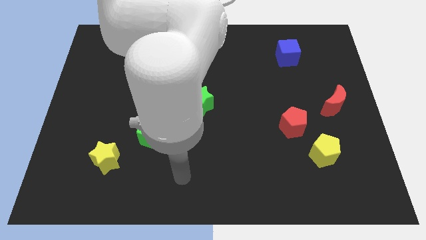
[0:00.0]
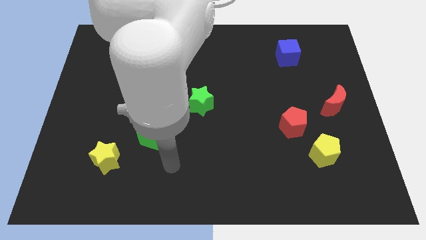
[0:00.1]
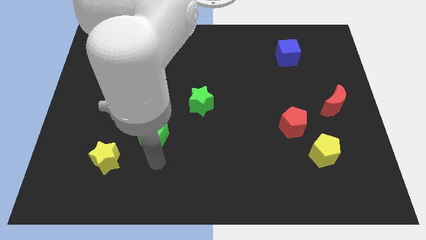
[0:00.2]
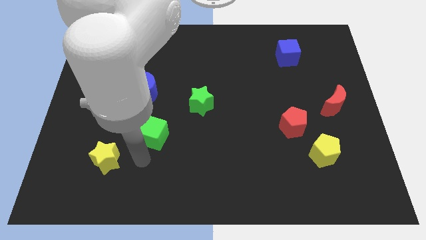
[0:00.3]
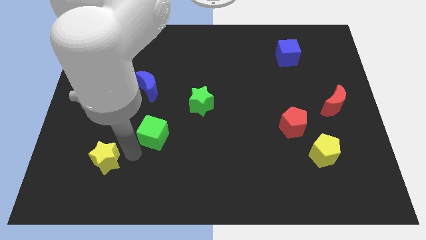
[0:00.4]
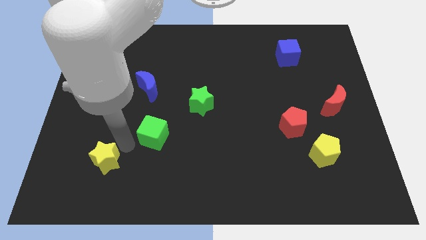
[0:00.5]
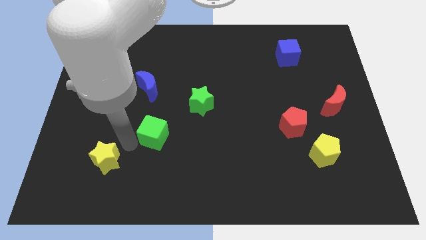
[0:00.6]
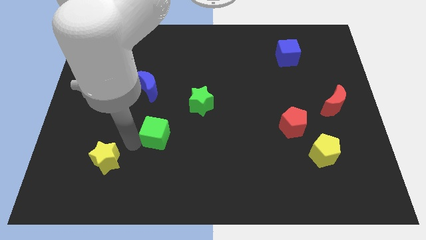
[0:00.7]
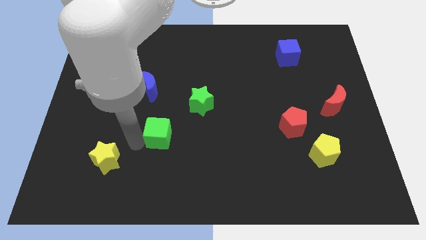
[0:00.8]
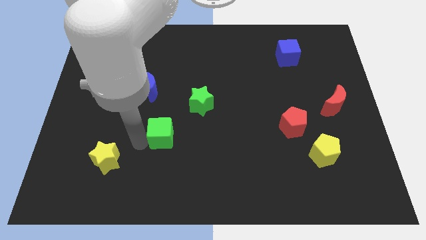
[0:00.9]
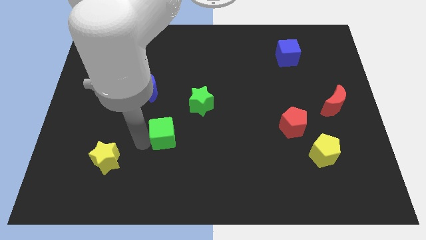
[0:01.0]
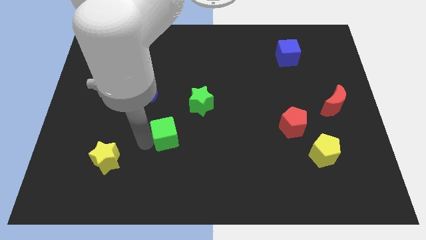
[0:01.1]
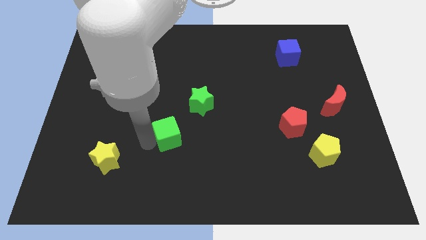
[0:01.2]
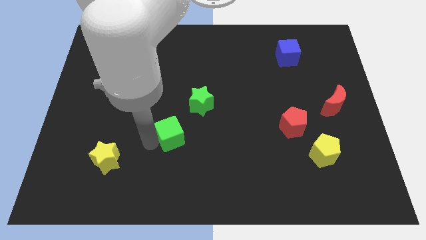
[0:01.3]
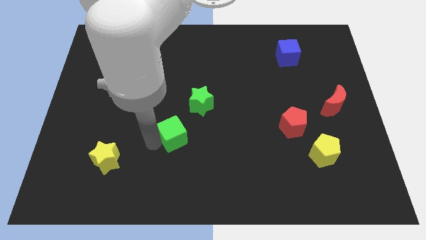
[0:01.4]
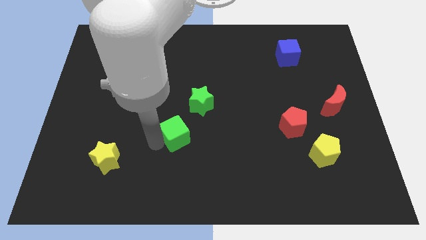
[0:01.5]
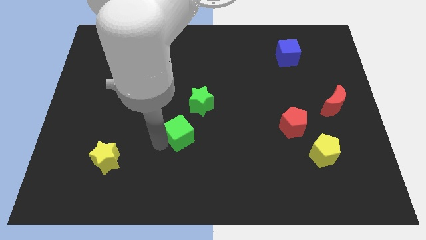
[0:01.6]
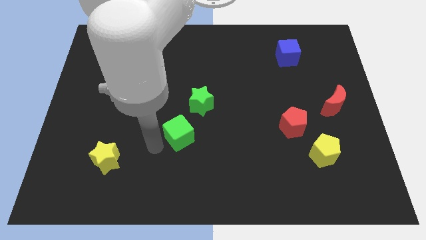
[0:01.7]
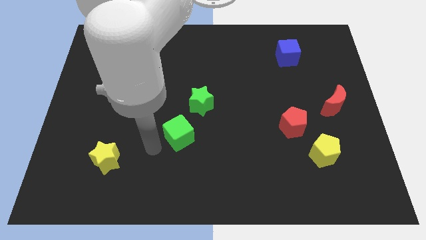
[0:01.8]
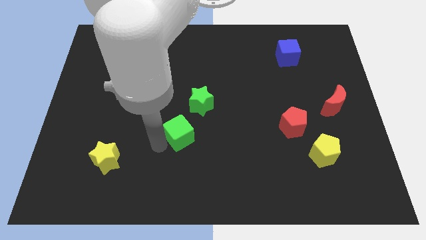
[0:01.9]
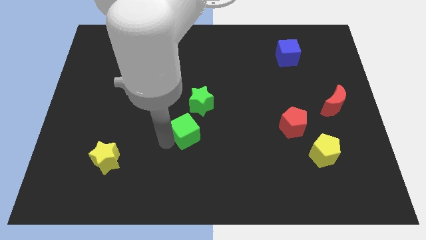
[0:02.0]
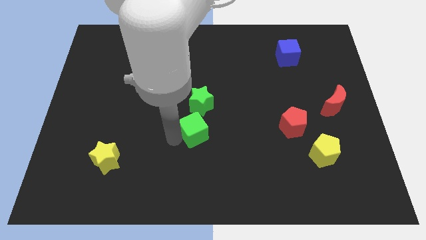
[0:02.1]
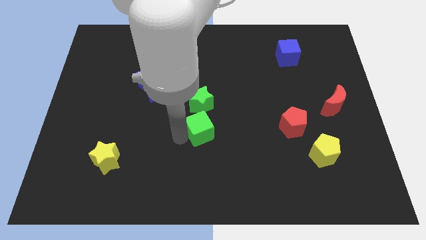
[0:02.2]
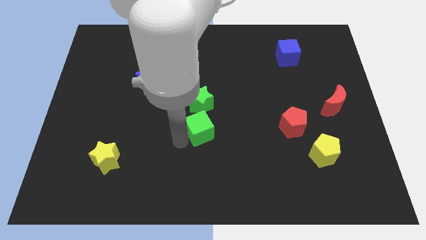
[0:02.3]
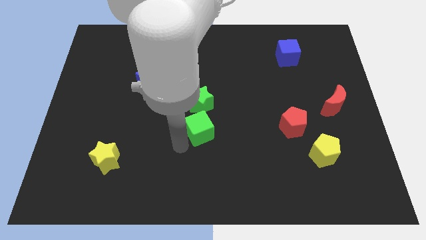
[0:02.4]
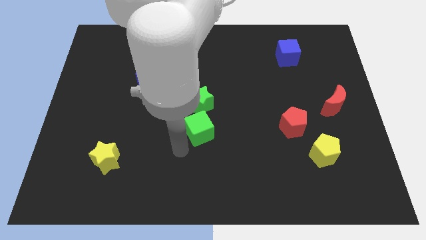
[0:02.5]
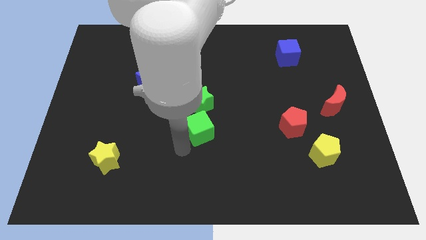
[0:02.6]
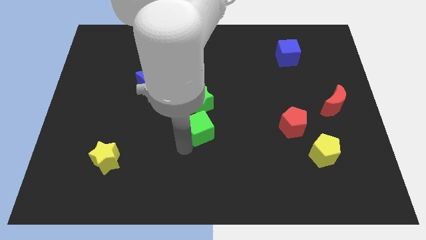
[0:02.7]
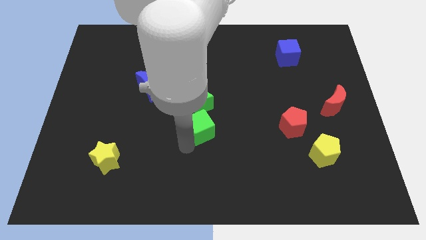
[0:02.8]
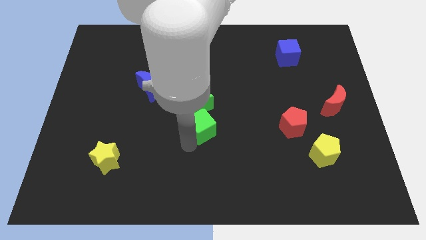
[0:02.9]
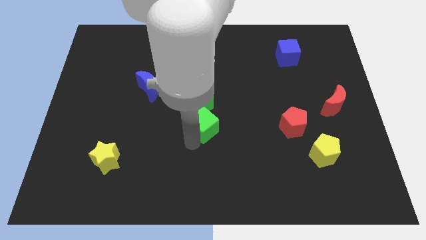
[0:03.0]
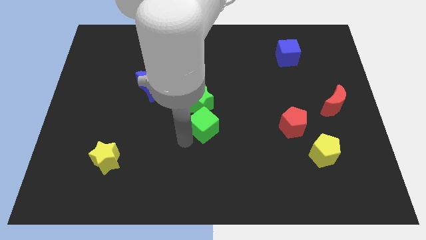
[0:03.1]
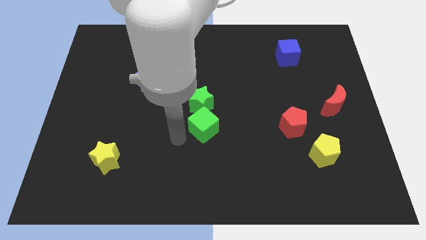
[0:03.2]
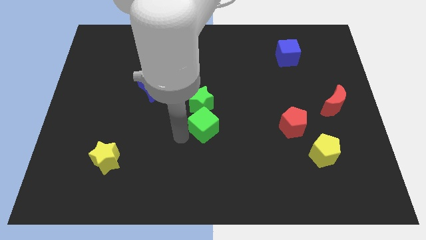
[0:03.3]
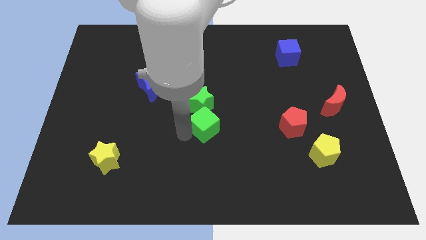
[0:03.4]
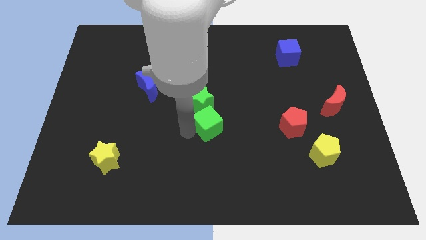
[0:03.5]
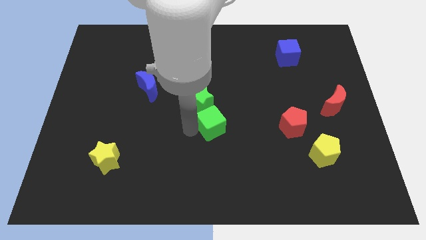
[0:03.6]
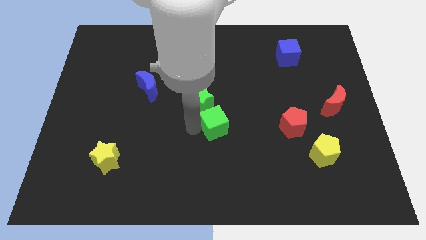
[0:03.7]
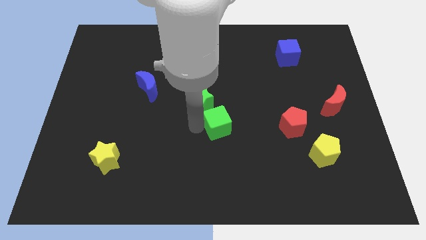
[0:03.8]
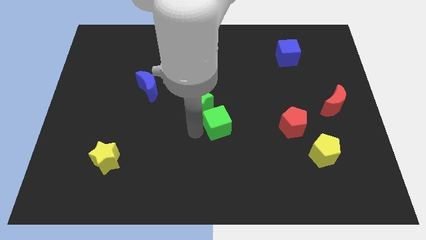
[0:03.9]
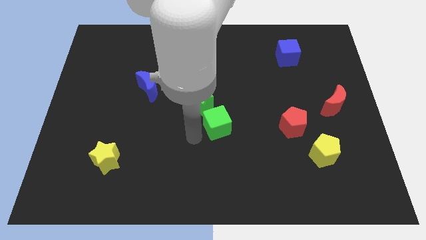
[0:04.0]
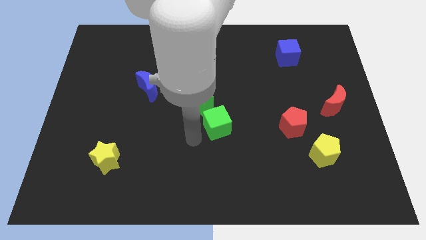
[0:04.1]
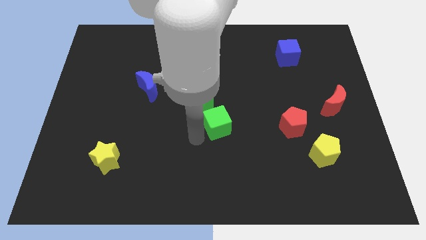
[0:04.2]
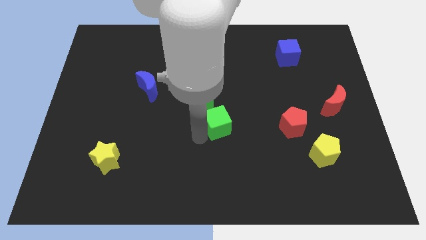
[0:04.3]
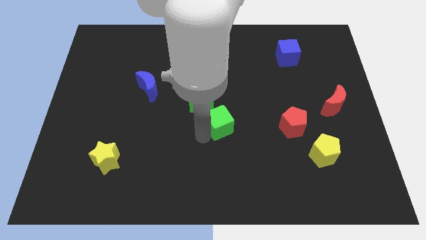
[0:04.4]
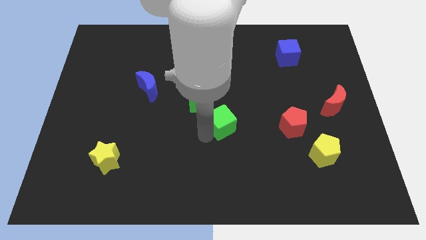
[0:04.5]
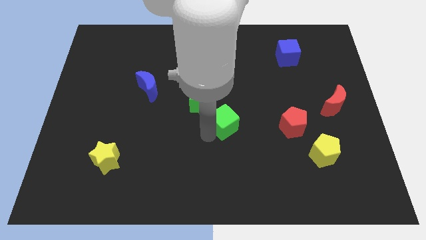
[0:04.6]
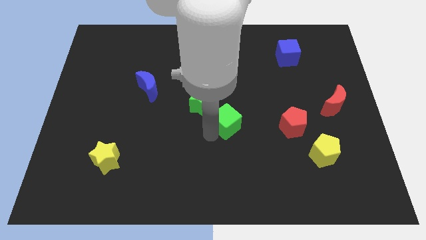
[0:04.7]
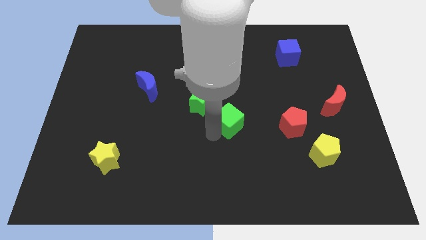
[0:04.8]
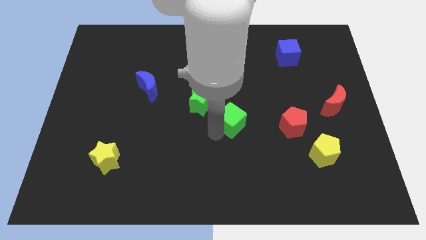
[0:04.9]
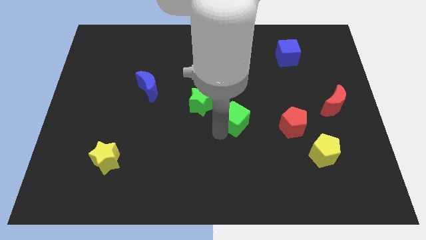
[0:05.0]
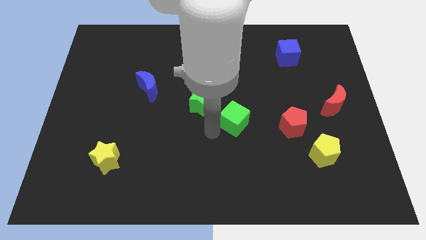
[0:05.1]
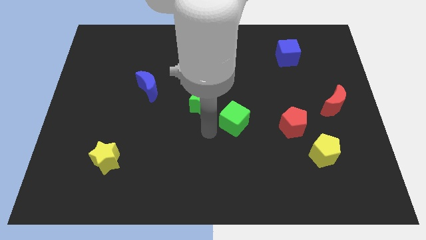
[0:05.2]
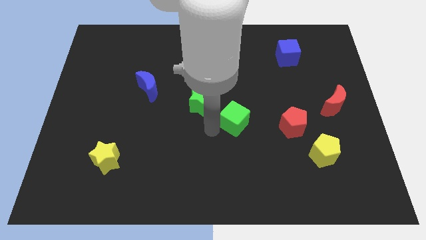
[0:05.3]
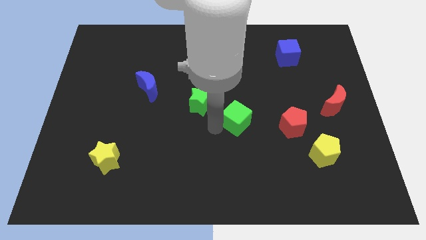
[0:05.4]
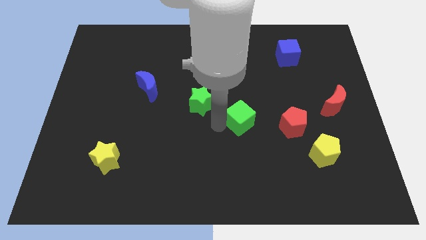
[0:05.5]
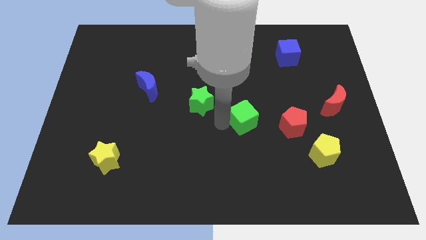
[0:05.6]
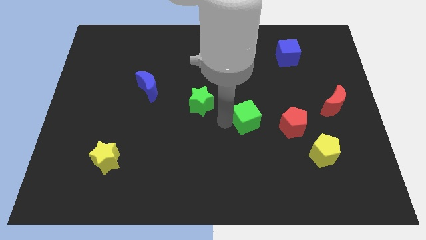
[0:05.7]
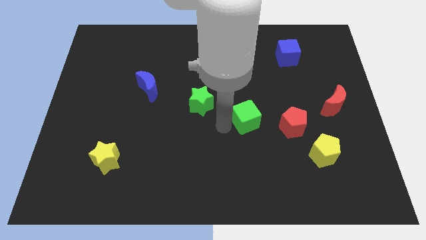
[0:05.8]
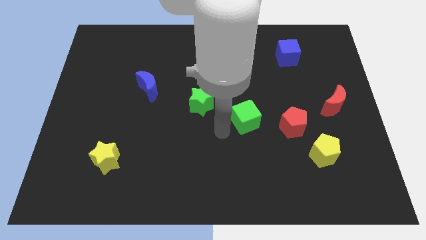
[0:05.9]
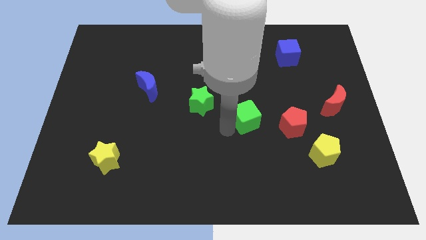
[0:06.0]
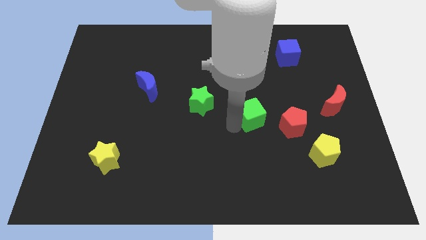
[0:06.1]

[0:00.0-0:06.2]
slide the green cube to the top left side of the red pentagon

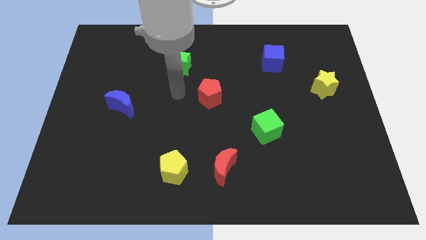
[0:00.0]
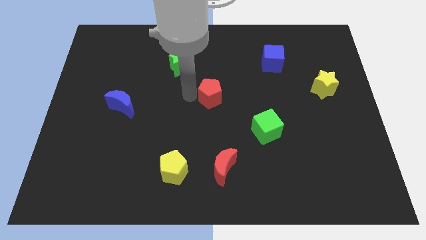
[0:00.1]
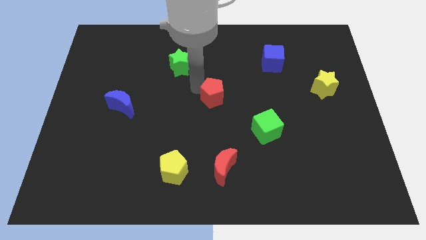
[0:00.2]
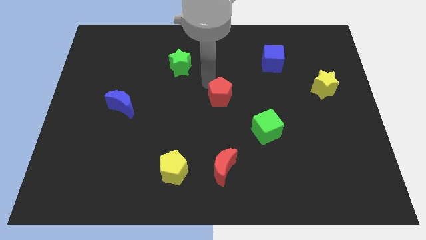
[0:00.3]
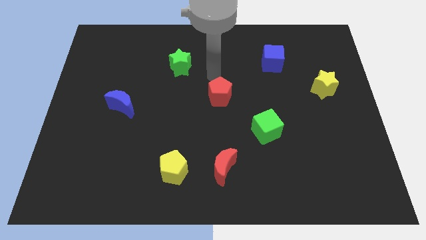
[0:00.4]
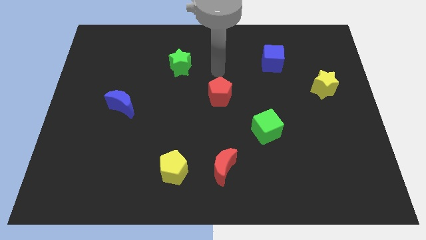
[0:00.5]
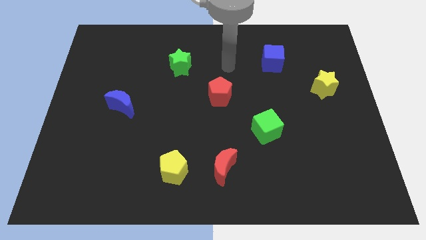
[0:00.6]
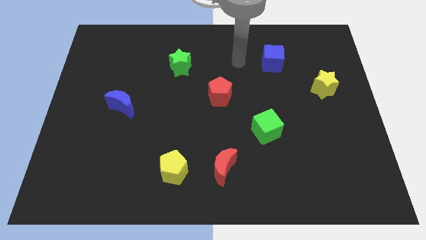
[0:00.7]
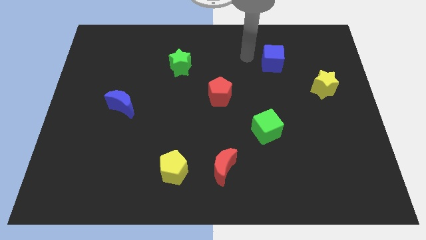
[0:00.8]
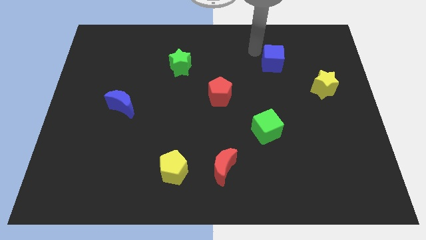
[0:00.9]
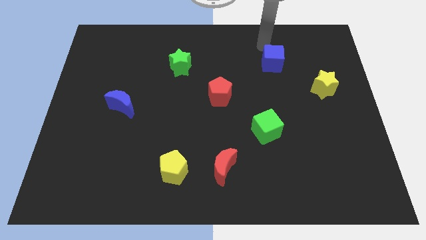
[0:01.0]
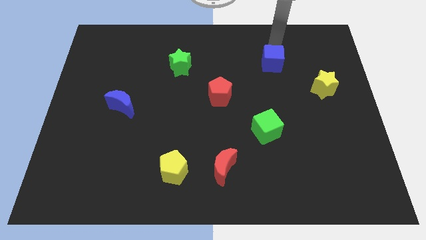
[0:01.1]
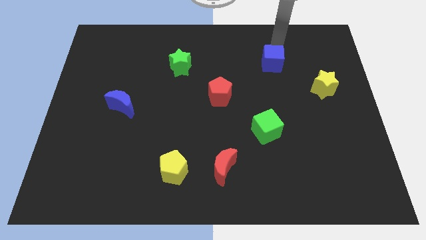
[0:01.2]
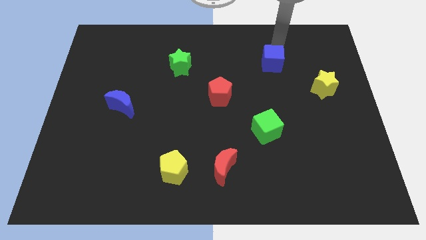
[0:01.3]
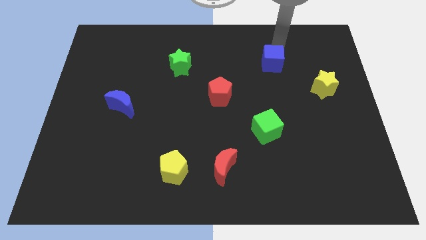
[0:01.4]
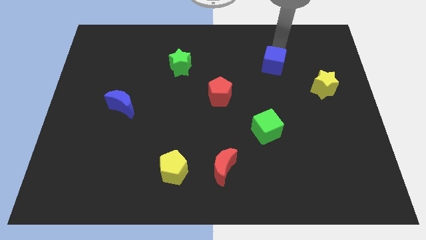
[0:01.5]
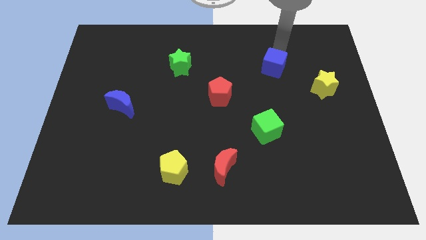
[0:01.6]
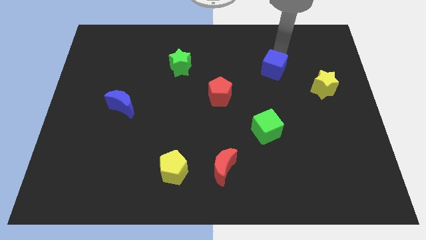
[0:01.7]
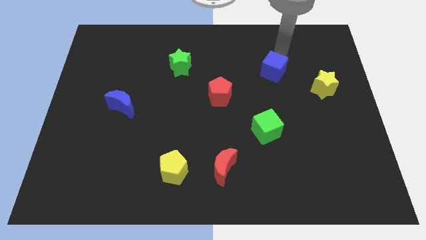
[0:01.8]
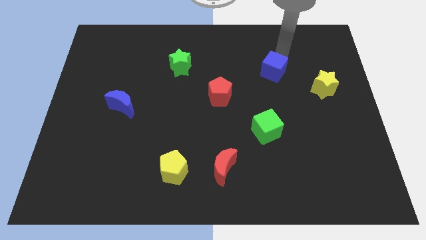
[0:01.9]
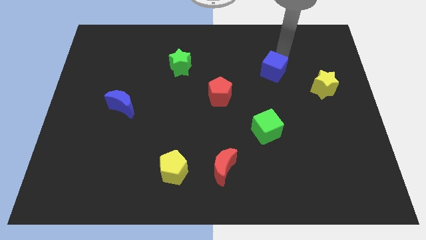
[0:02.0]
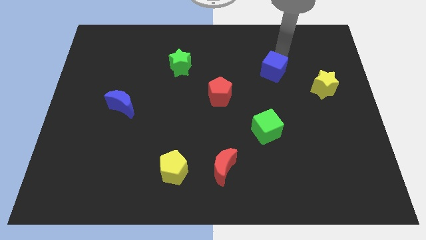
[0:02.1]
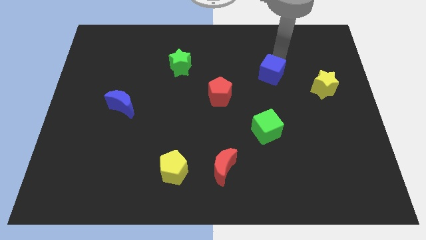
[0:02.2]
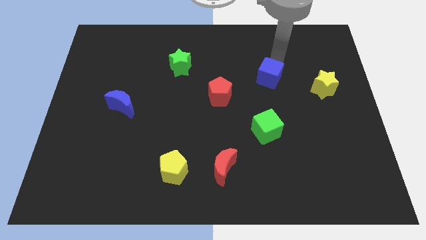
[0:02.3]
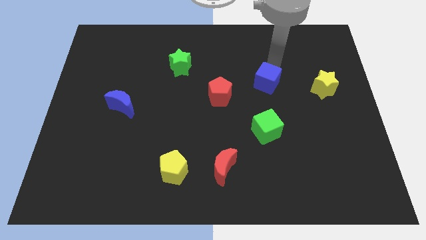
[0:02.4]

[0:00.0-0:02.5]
move the blue cube to the top of the green cube
